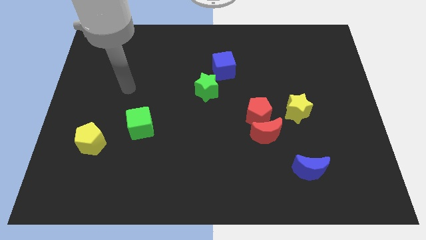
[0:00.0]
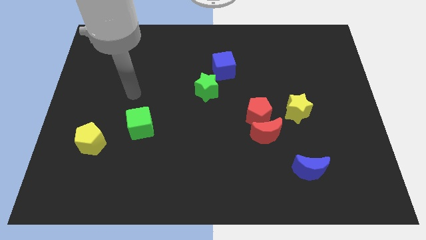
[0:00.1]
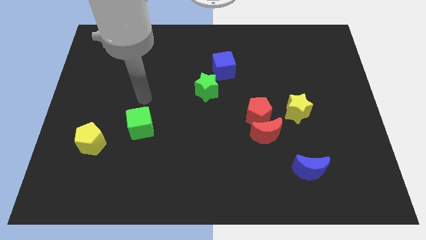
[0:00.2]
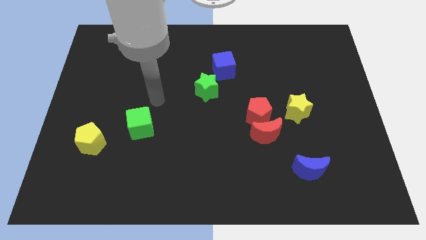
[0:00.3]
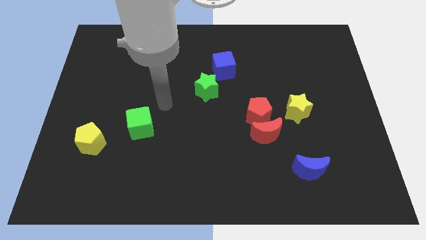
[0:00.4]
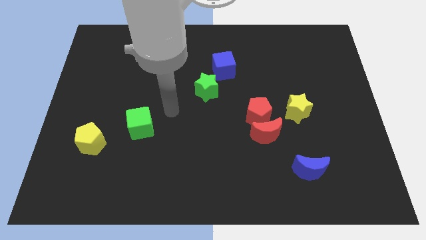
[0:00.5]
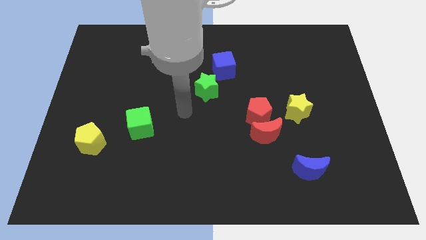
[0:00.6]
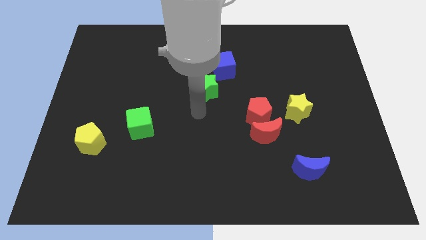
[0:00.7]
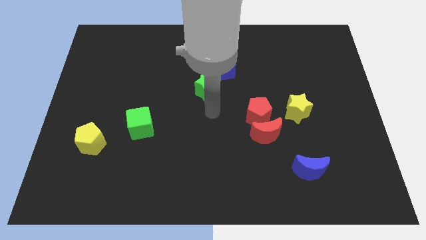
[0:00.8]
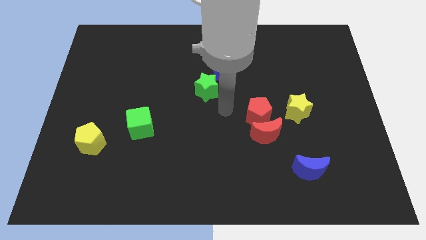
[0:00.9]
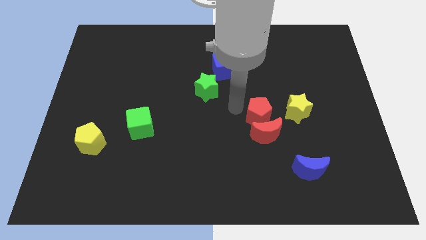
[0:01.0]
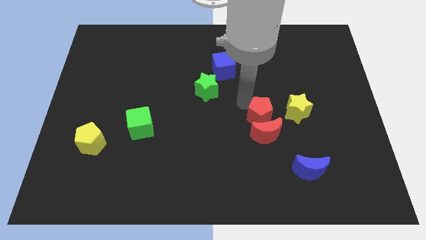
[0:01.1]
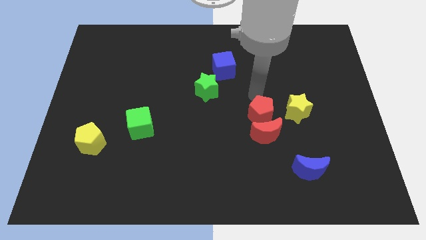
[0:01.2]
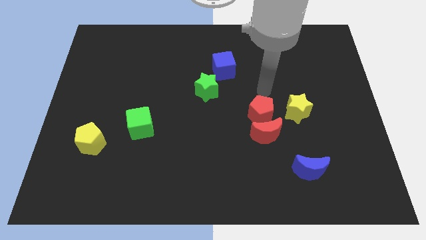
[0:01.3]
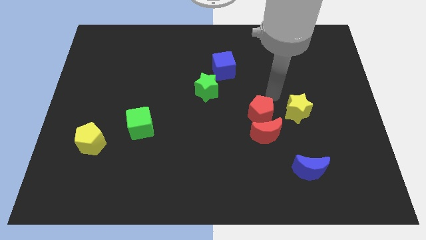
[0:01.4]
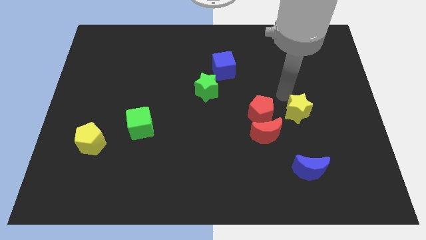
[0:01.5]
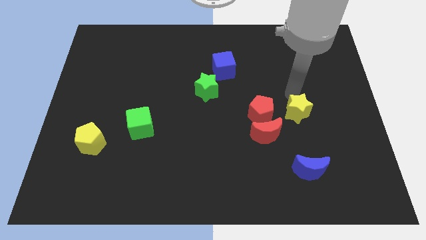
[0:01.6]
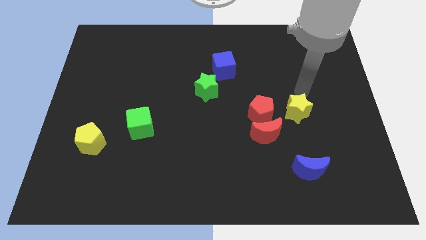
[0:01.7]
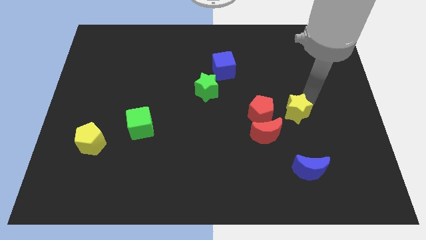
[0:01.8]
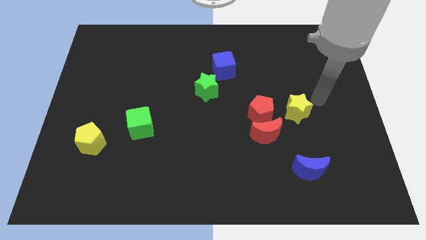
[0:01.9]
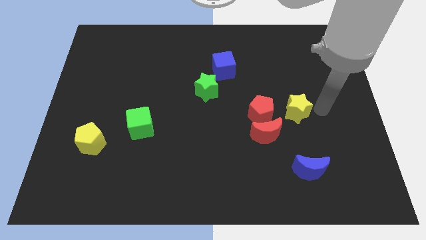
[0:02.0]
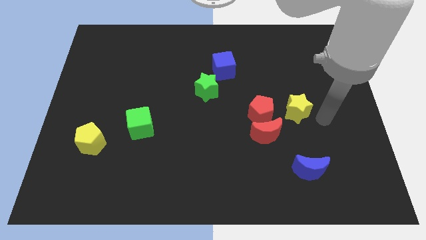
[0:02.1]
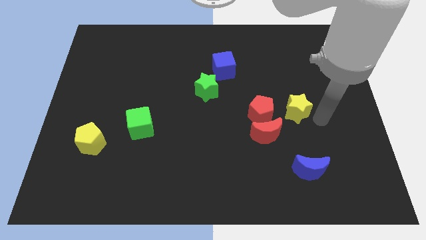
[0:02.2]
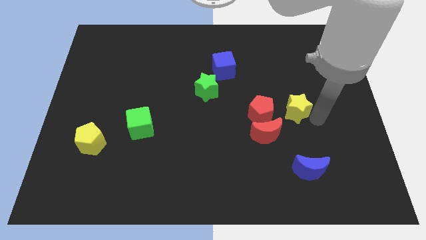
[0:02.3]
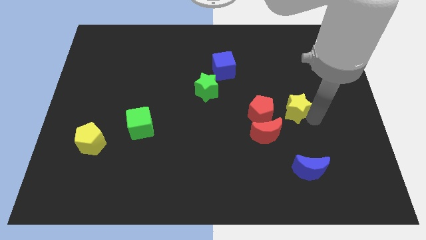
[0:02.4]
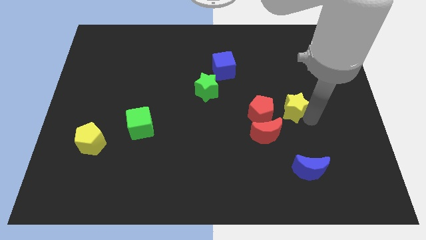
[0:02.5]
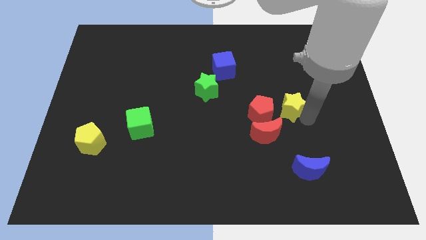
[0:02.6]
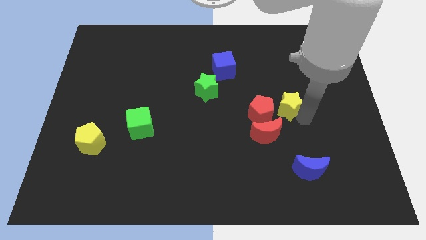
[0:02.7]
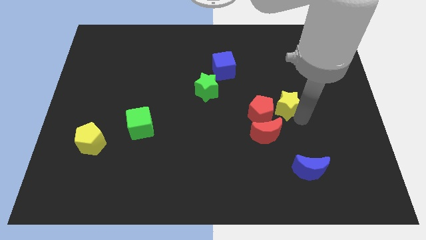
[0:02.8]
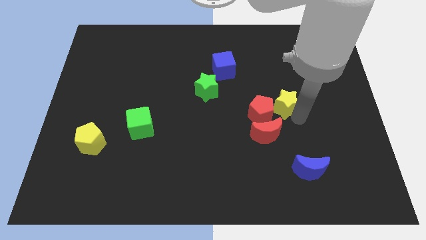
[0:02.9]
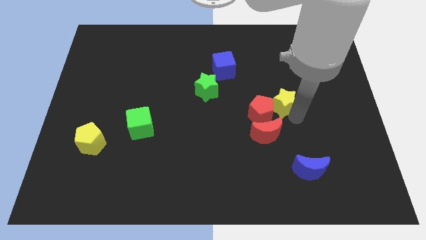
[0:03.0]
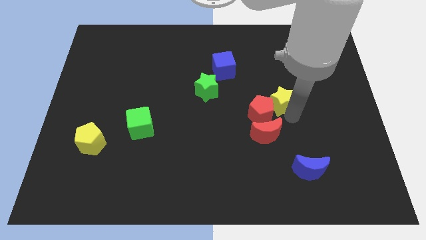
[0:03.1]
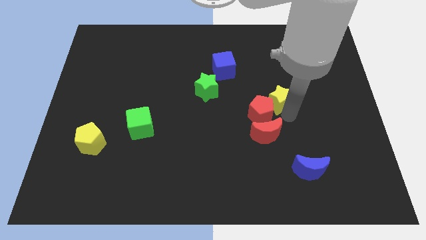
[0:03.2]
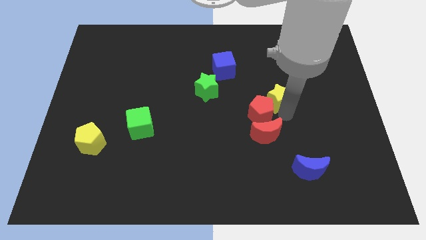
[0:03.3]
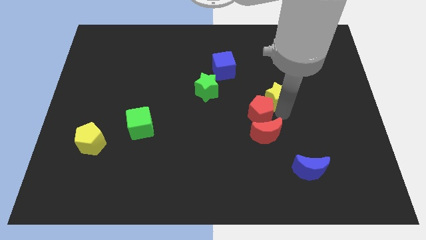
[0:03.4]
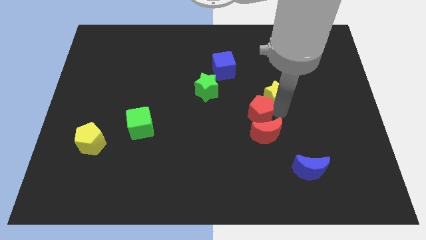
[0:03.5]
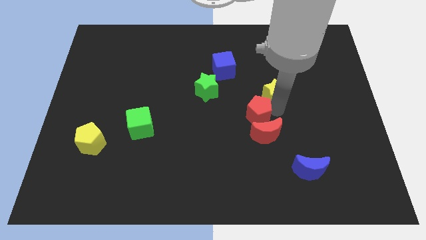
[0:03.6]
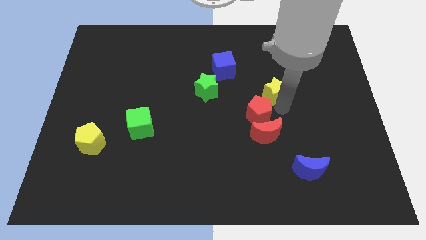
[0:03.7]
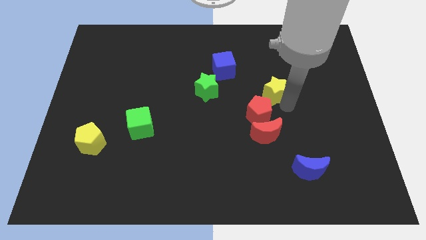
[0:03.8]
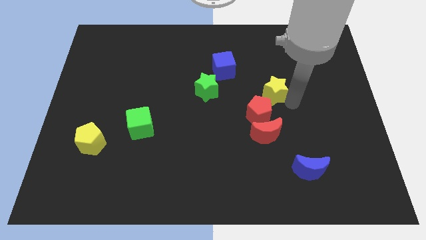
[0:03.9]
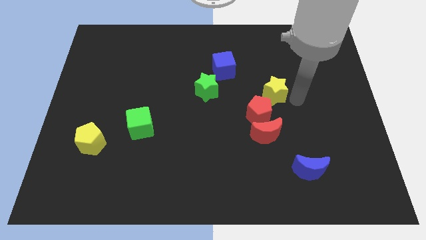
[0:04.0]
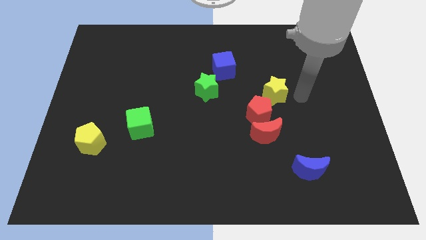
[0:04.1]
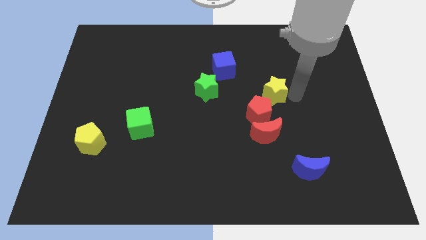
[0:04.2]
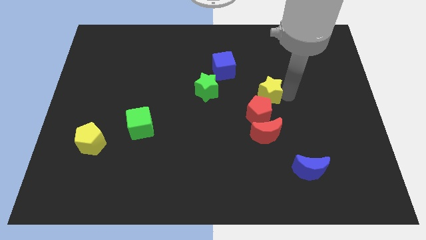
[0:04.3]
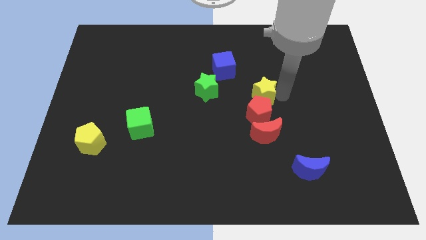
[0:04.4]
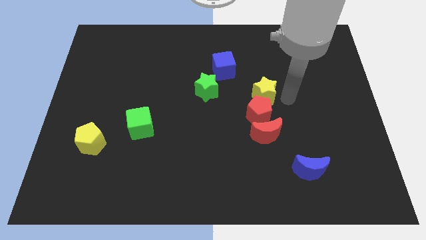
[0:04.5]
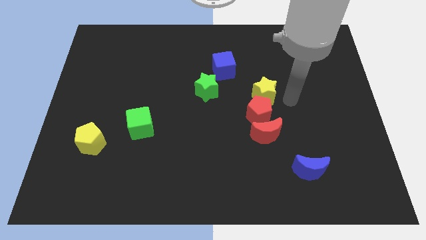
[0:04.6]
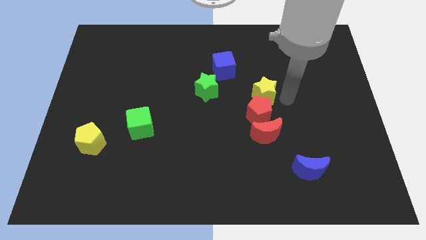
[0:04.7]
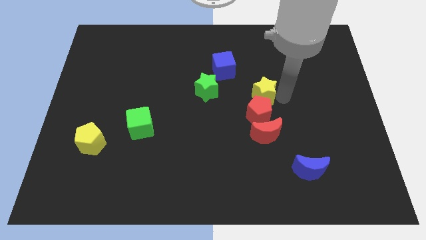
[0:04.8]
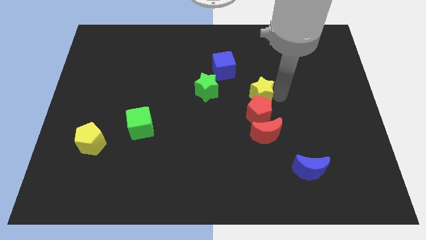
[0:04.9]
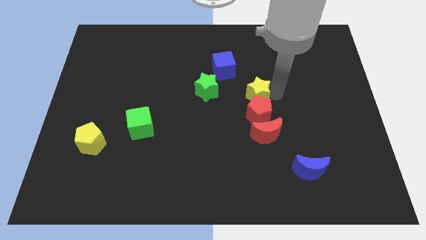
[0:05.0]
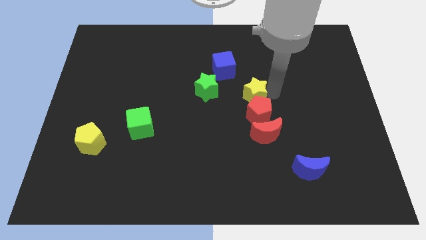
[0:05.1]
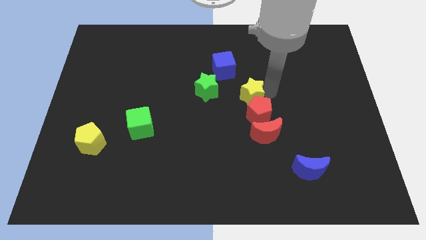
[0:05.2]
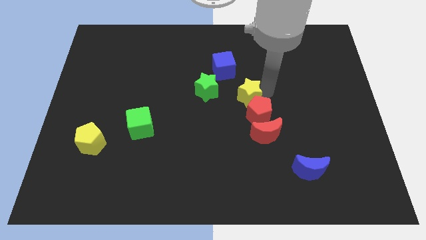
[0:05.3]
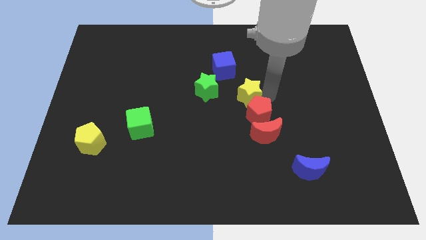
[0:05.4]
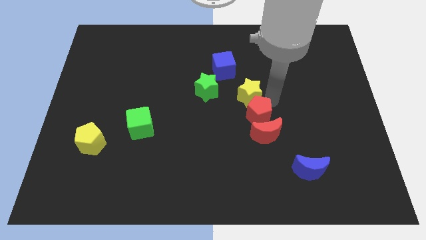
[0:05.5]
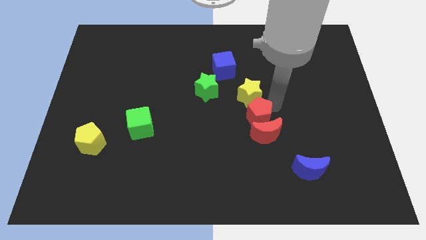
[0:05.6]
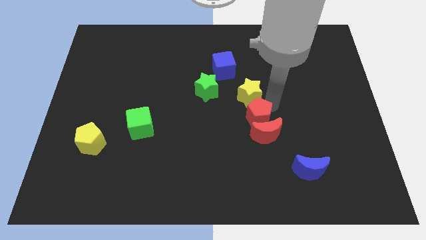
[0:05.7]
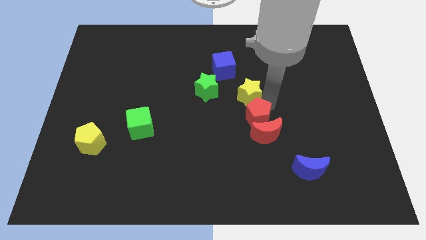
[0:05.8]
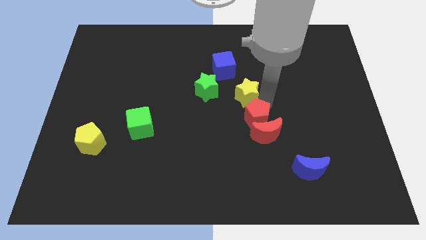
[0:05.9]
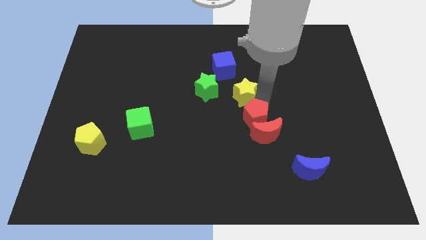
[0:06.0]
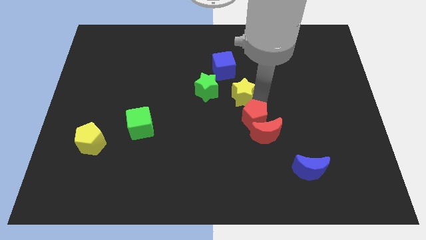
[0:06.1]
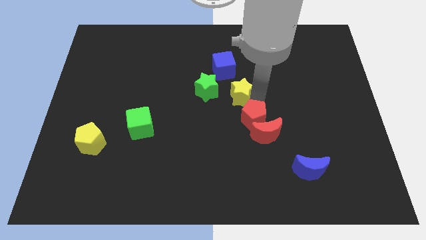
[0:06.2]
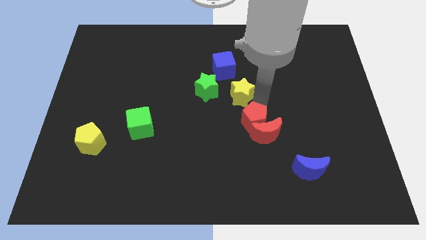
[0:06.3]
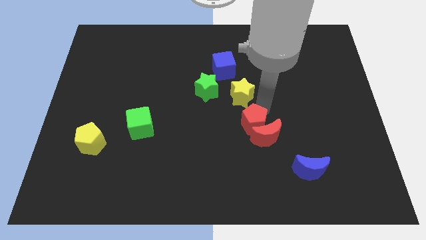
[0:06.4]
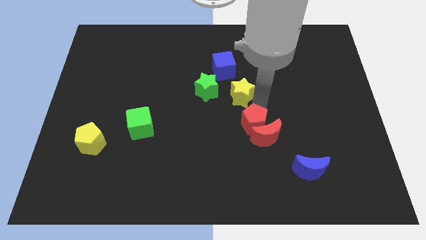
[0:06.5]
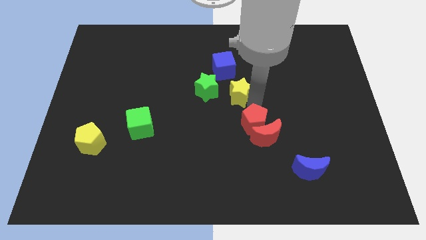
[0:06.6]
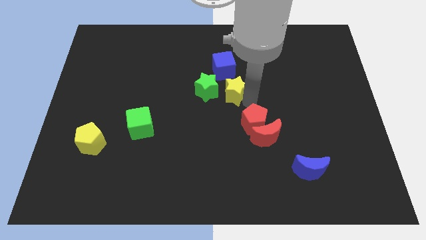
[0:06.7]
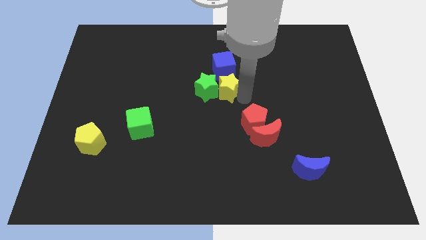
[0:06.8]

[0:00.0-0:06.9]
move the yellow star next to the green star

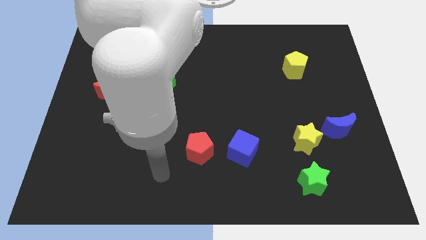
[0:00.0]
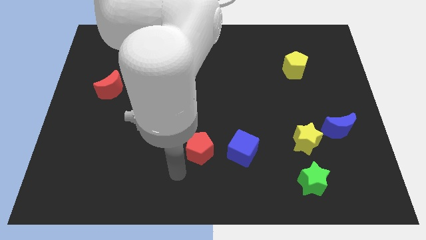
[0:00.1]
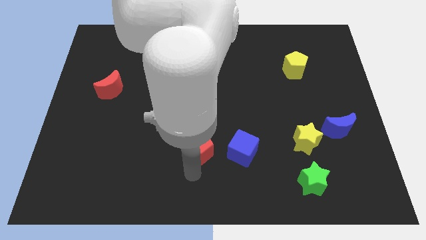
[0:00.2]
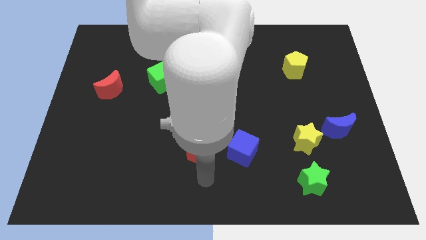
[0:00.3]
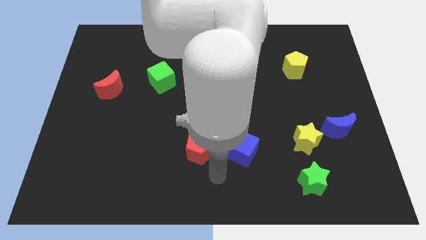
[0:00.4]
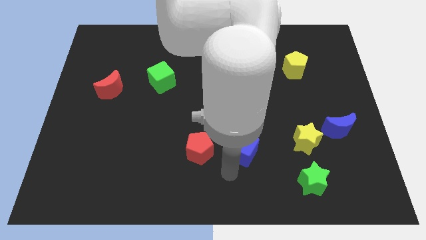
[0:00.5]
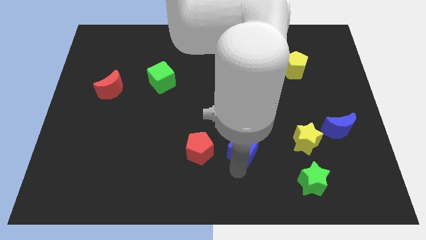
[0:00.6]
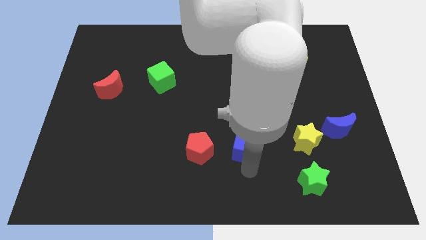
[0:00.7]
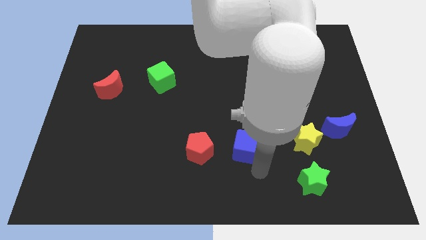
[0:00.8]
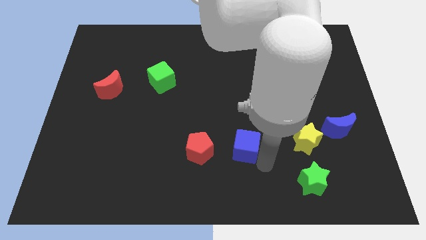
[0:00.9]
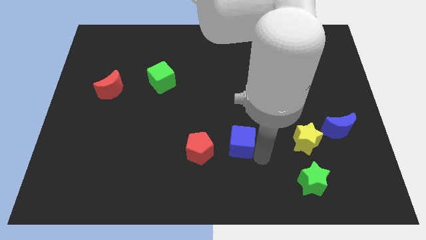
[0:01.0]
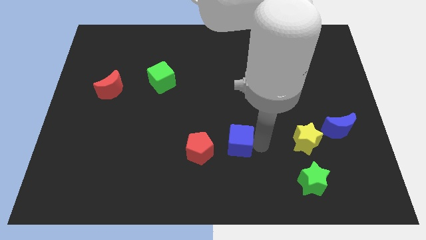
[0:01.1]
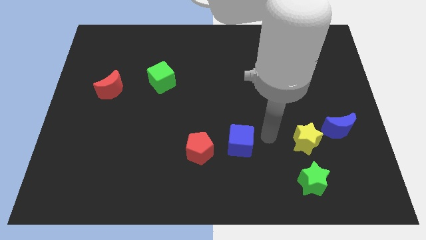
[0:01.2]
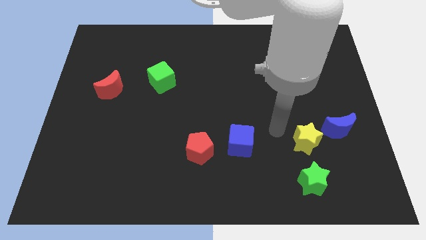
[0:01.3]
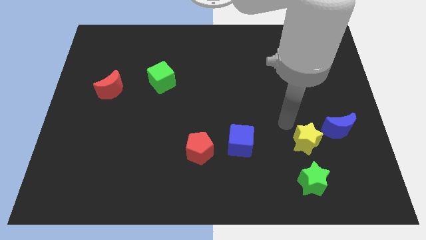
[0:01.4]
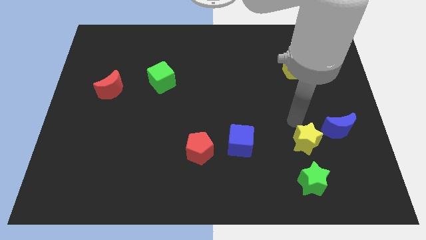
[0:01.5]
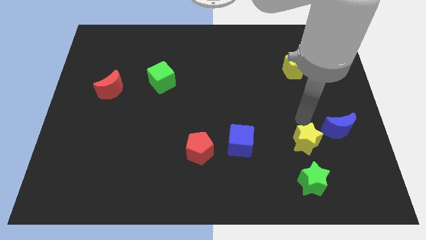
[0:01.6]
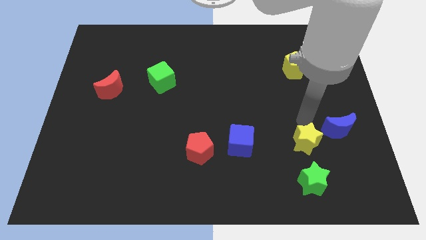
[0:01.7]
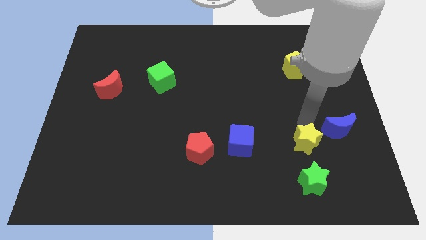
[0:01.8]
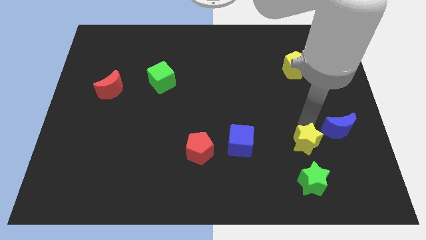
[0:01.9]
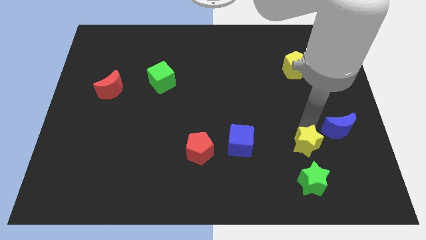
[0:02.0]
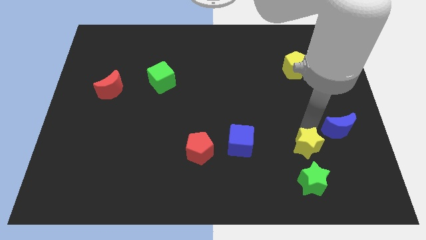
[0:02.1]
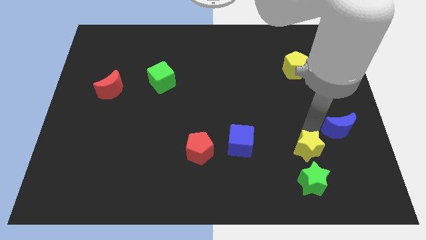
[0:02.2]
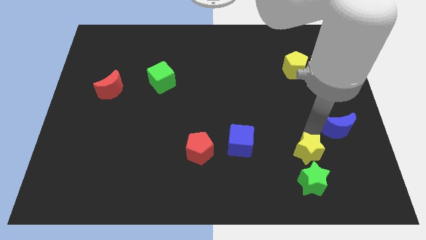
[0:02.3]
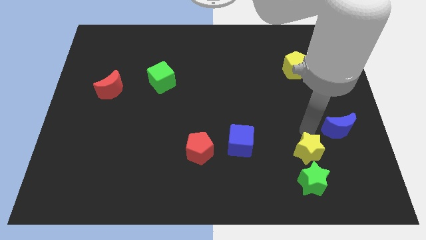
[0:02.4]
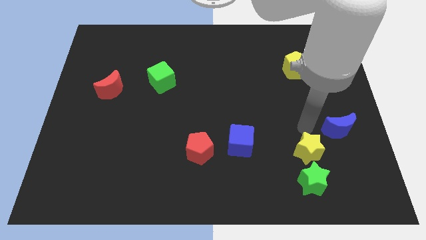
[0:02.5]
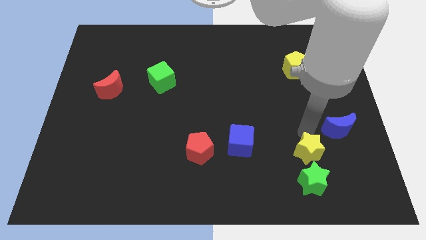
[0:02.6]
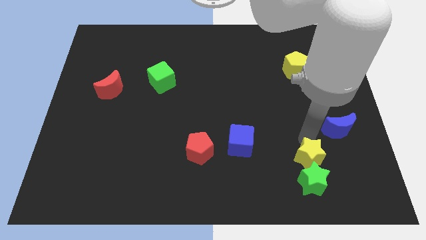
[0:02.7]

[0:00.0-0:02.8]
put the yellow star to the green star
